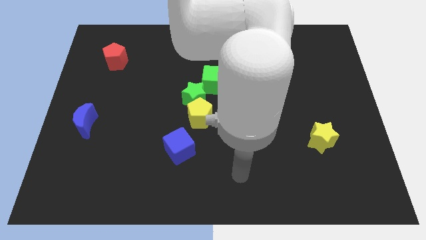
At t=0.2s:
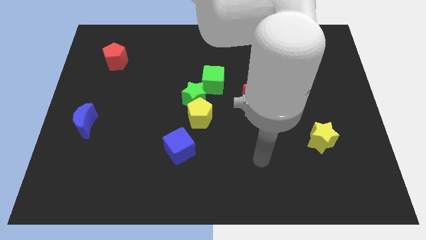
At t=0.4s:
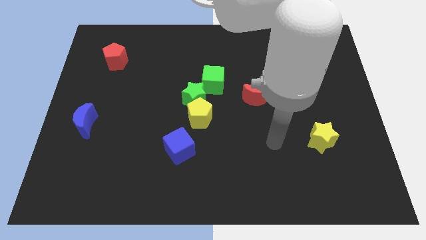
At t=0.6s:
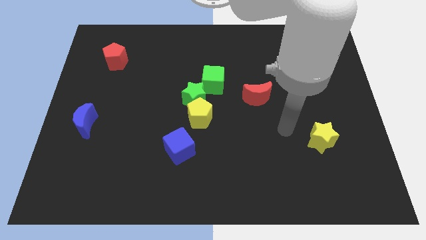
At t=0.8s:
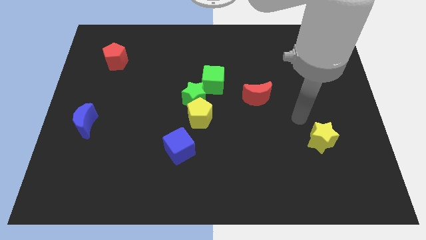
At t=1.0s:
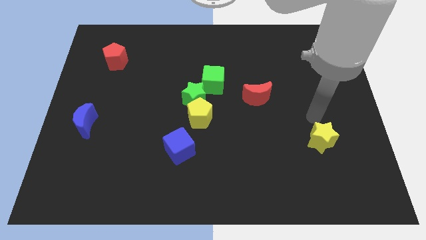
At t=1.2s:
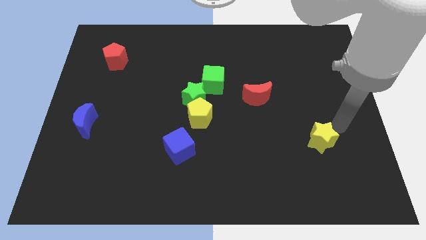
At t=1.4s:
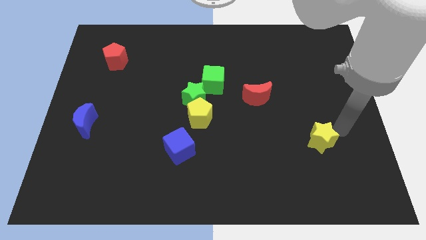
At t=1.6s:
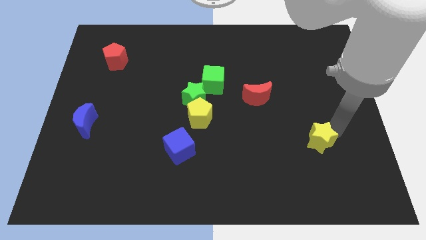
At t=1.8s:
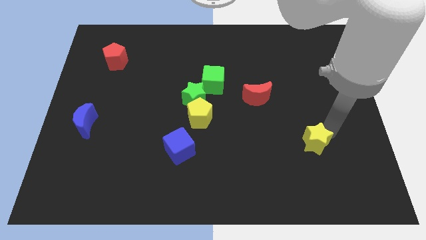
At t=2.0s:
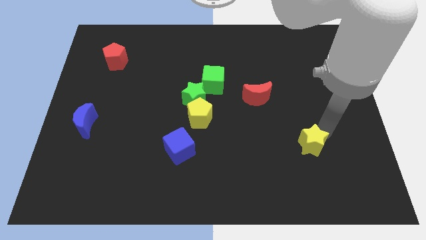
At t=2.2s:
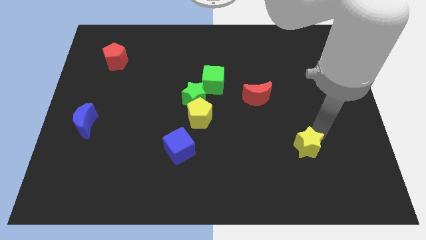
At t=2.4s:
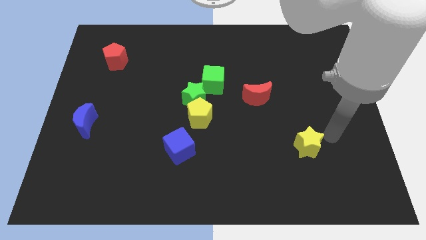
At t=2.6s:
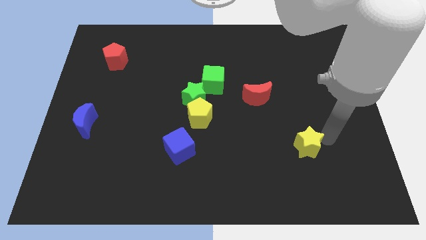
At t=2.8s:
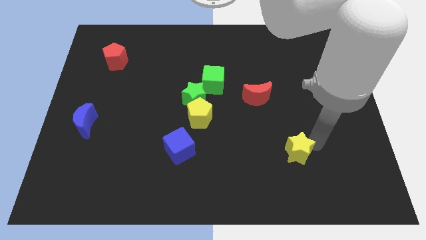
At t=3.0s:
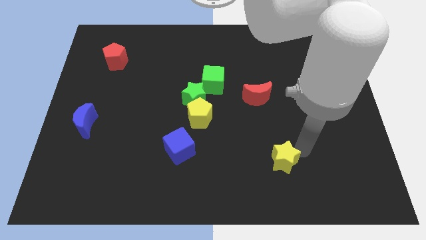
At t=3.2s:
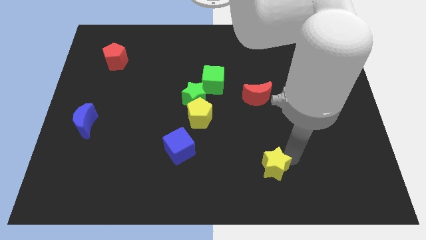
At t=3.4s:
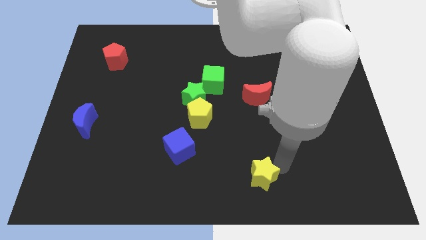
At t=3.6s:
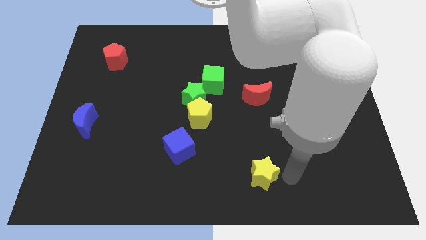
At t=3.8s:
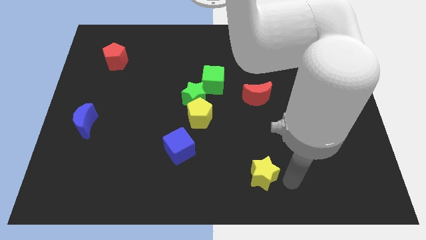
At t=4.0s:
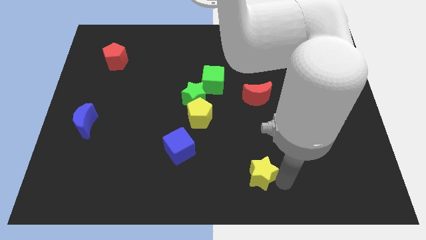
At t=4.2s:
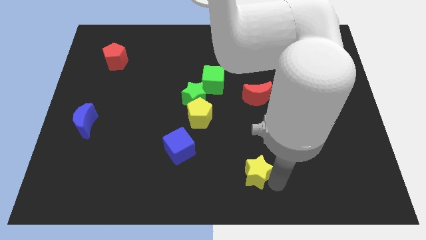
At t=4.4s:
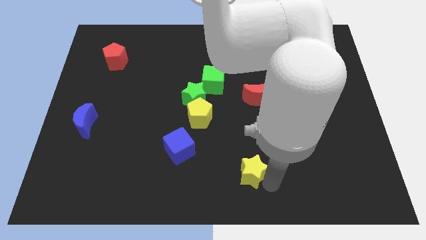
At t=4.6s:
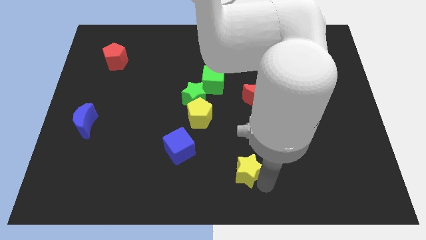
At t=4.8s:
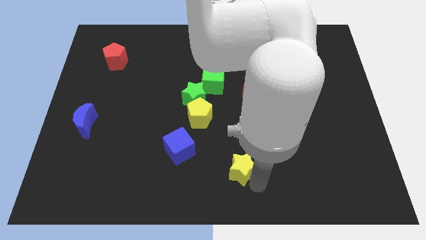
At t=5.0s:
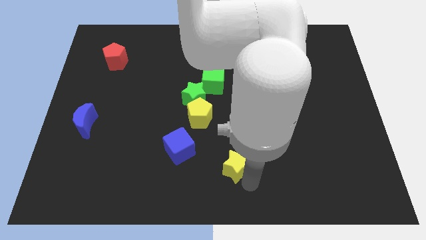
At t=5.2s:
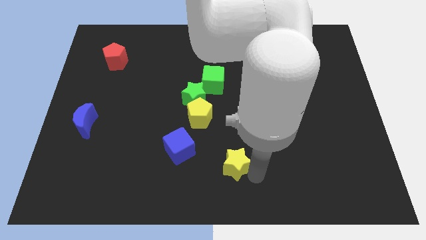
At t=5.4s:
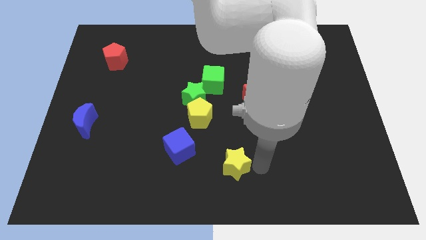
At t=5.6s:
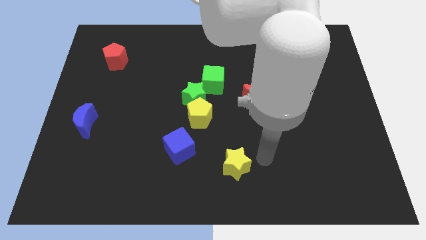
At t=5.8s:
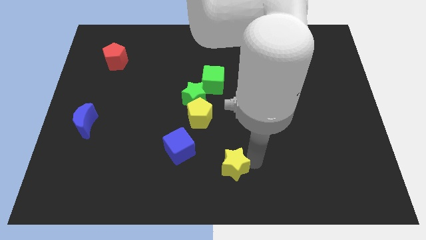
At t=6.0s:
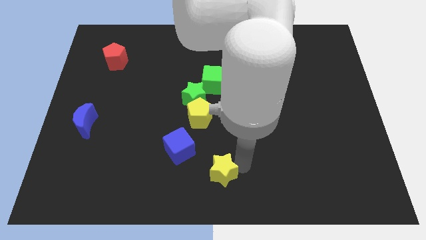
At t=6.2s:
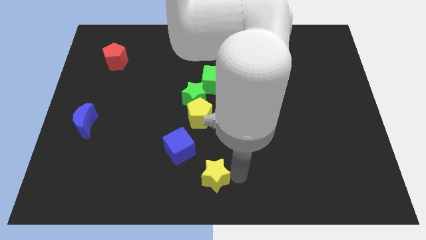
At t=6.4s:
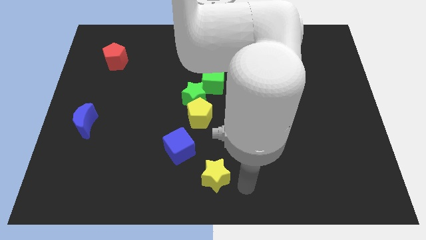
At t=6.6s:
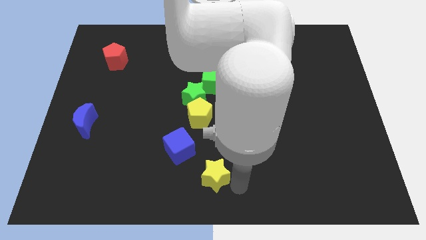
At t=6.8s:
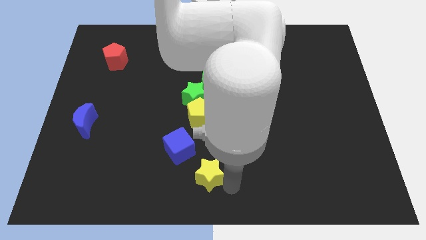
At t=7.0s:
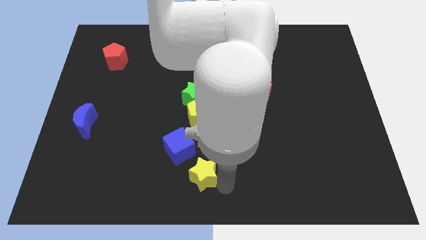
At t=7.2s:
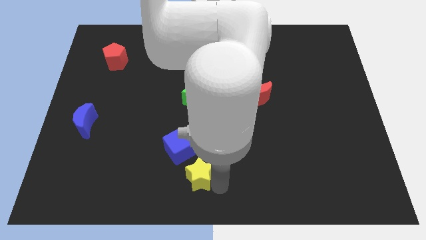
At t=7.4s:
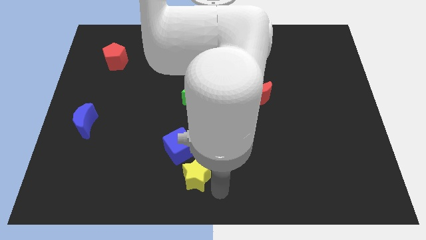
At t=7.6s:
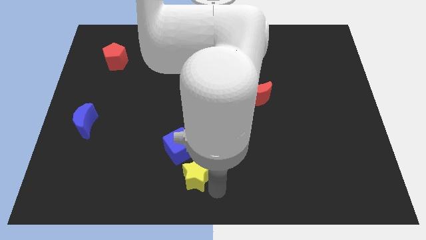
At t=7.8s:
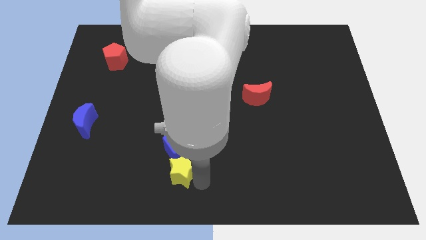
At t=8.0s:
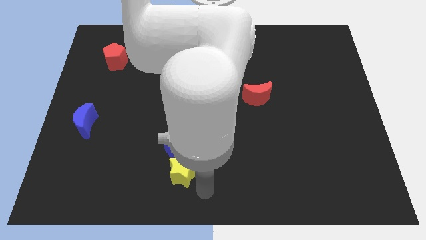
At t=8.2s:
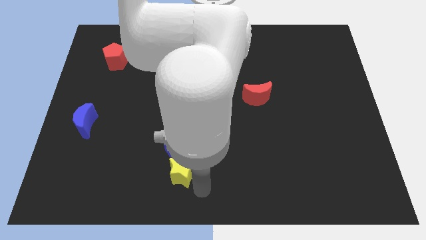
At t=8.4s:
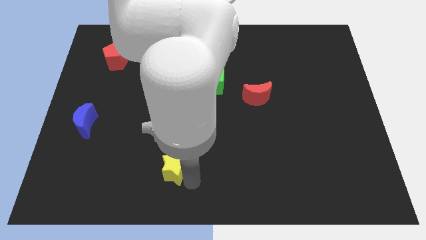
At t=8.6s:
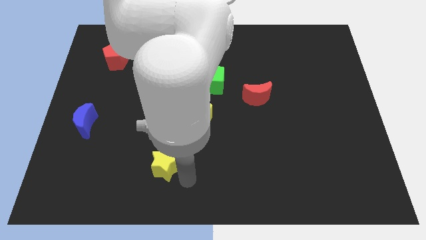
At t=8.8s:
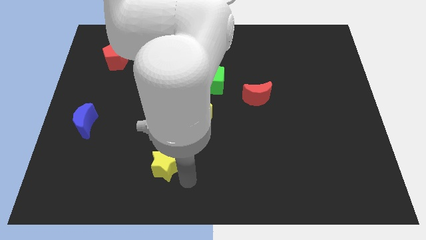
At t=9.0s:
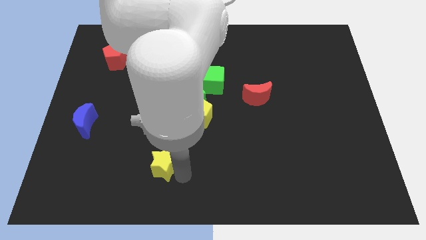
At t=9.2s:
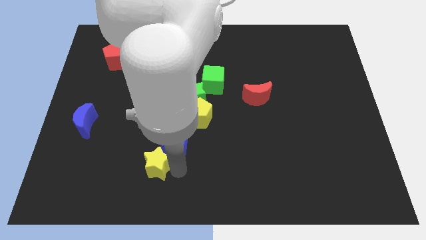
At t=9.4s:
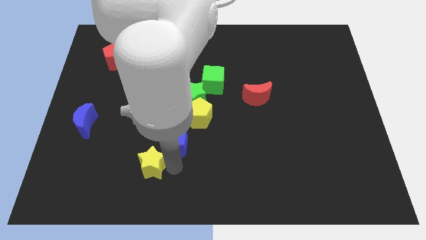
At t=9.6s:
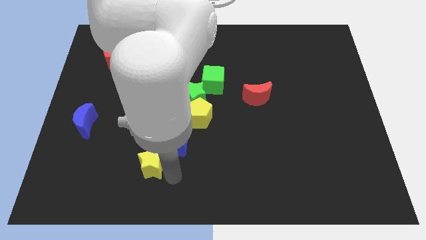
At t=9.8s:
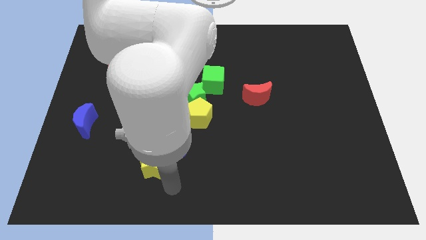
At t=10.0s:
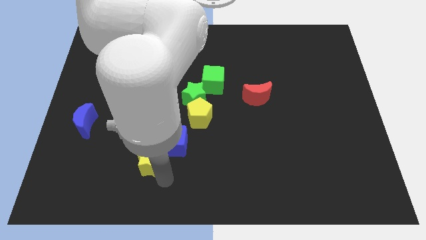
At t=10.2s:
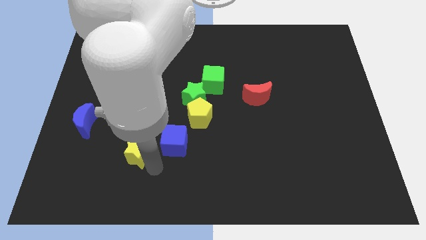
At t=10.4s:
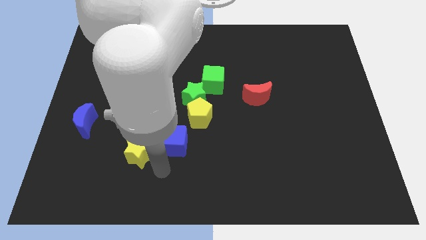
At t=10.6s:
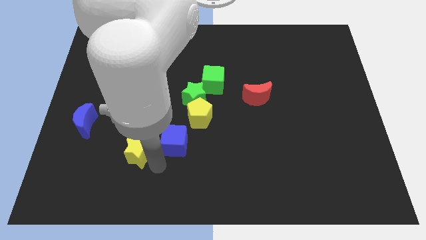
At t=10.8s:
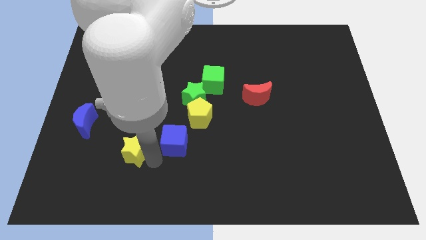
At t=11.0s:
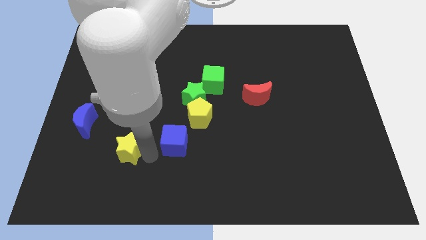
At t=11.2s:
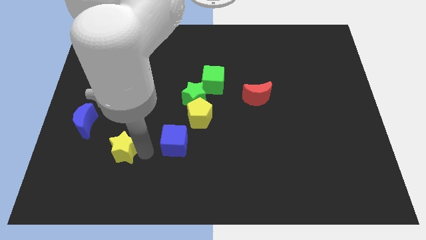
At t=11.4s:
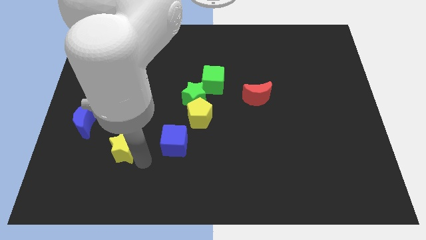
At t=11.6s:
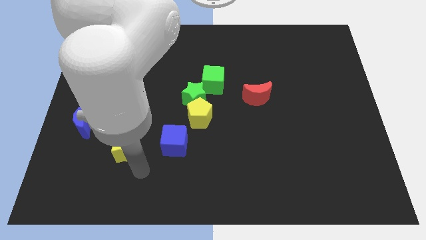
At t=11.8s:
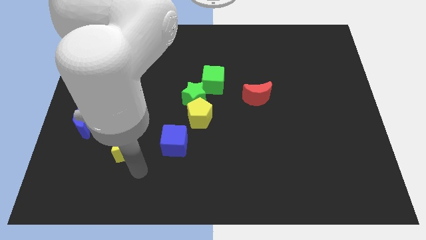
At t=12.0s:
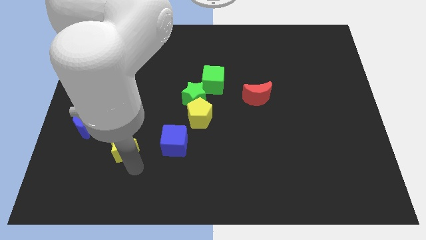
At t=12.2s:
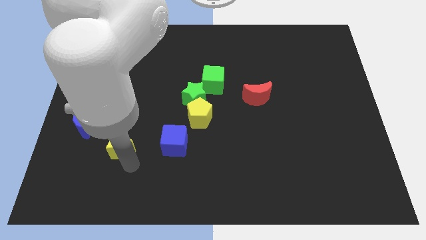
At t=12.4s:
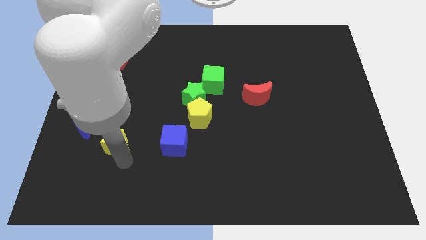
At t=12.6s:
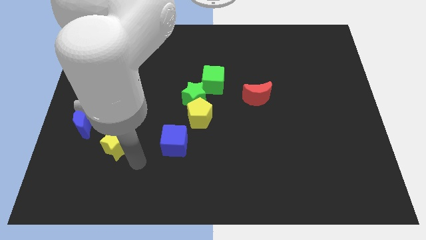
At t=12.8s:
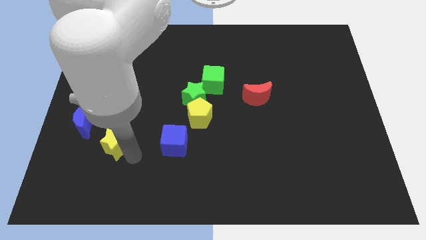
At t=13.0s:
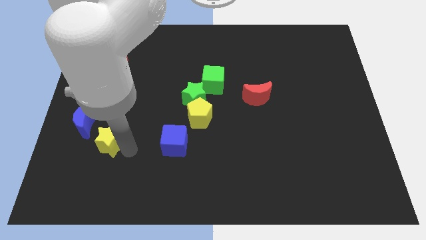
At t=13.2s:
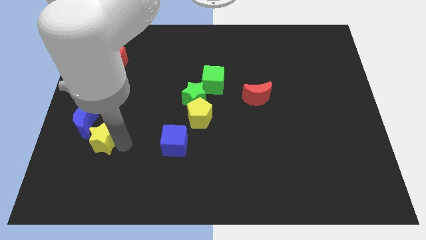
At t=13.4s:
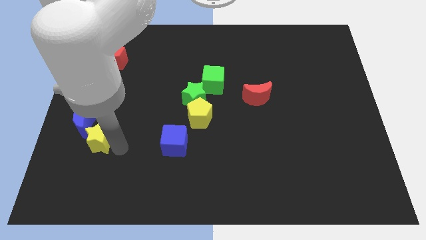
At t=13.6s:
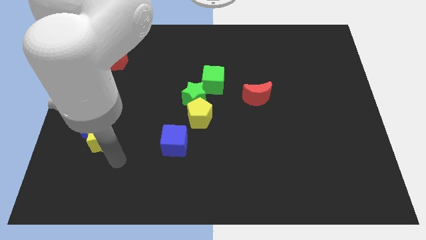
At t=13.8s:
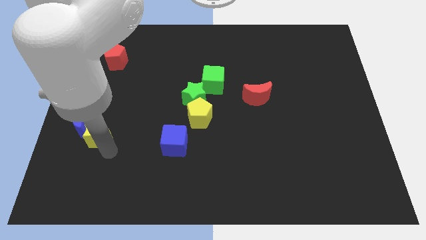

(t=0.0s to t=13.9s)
put the yellow star towards the blue moon
